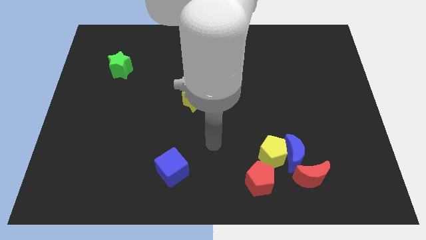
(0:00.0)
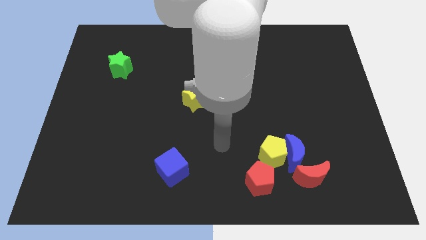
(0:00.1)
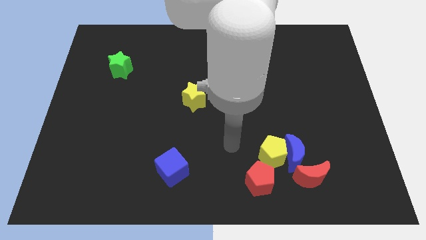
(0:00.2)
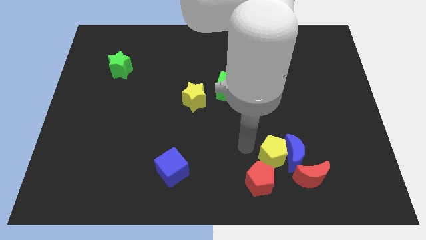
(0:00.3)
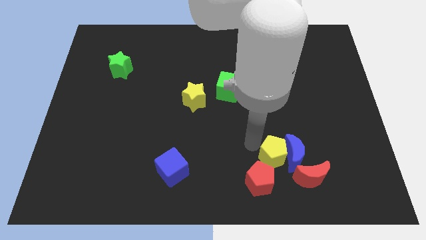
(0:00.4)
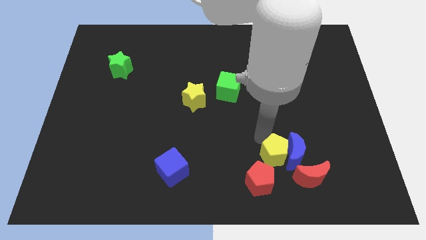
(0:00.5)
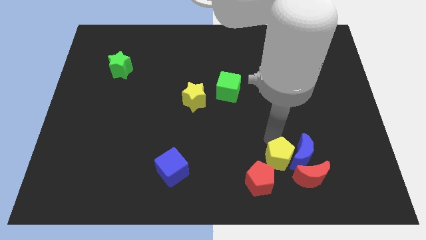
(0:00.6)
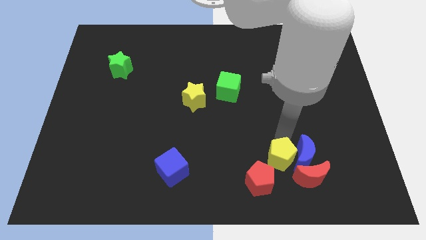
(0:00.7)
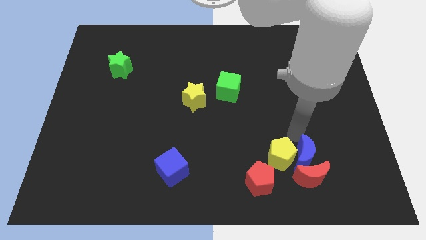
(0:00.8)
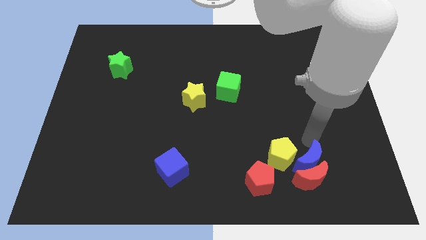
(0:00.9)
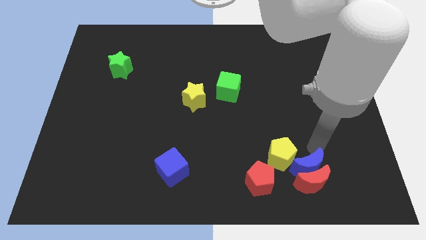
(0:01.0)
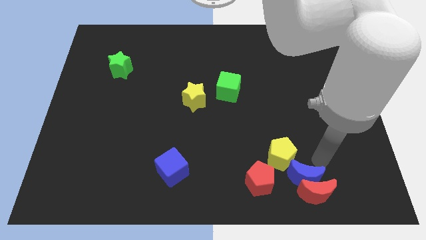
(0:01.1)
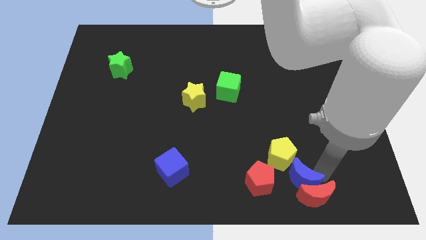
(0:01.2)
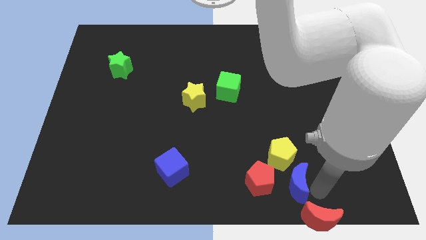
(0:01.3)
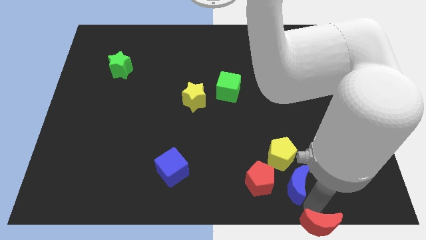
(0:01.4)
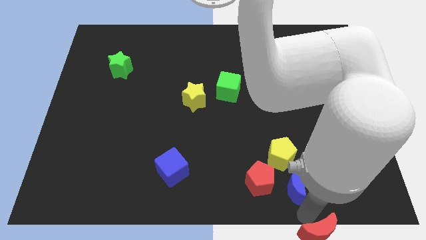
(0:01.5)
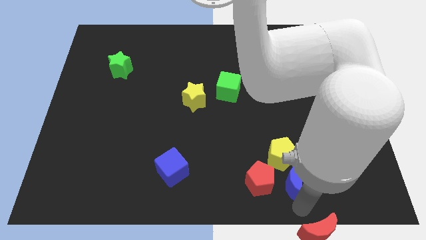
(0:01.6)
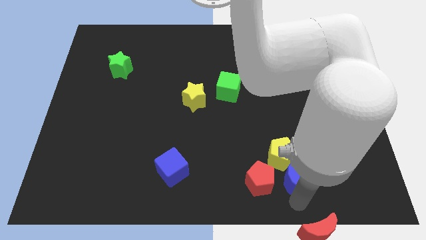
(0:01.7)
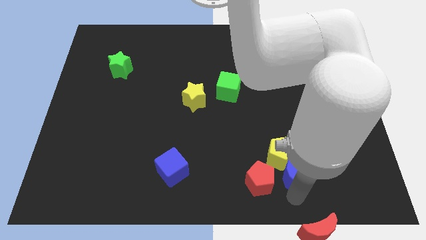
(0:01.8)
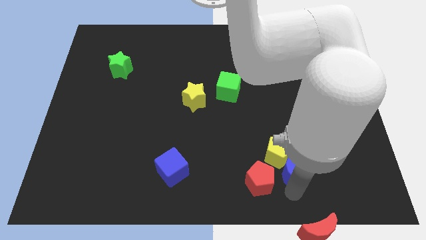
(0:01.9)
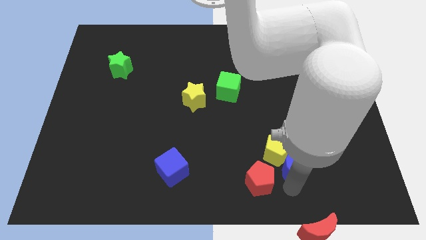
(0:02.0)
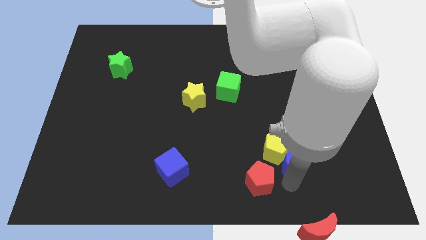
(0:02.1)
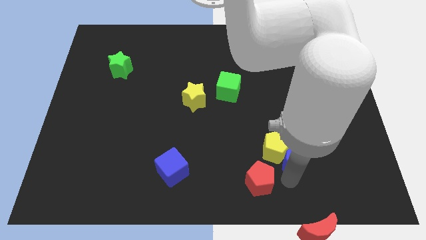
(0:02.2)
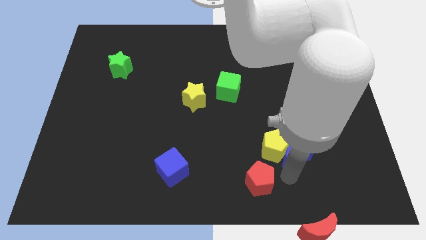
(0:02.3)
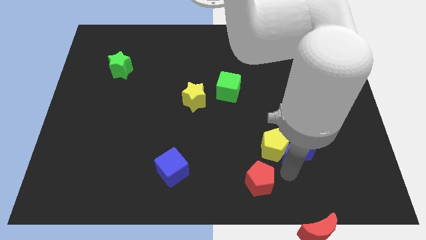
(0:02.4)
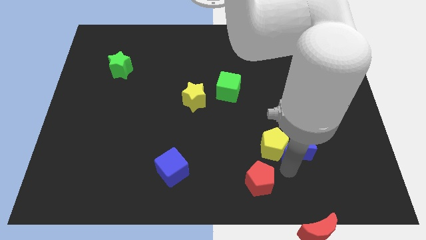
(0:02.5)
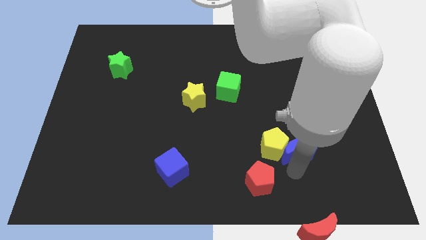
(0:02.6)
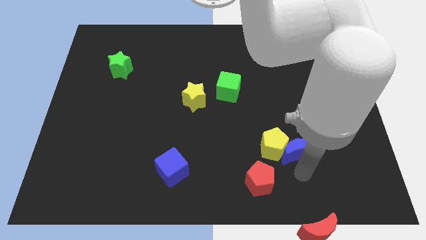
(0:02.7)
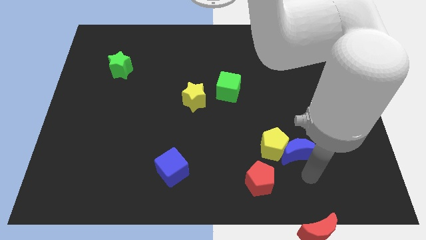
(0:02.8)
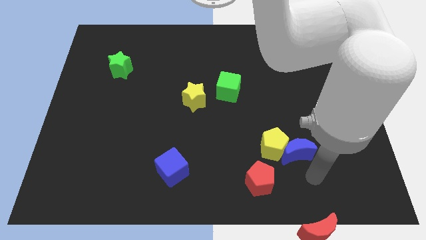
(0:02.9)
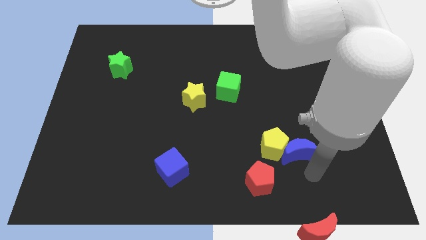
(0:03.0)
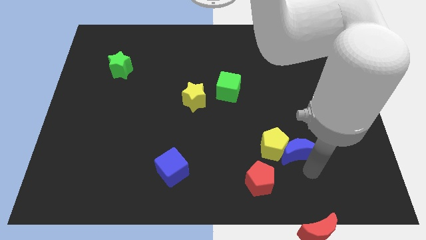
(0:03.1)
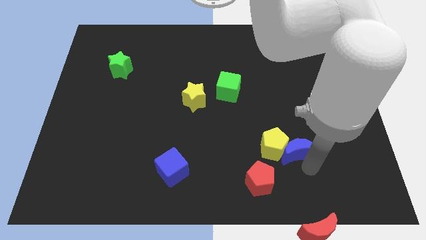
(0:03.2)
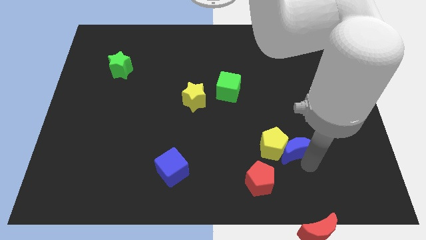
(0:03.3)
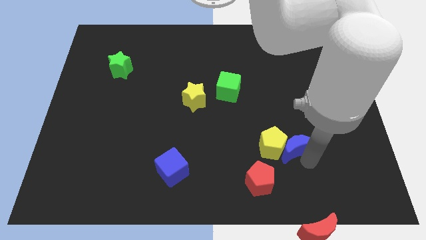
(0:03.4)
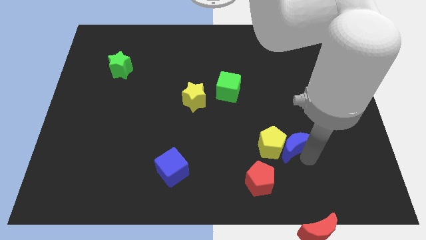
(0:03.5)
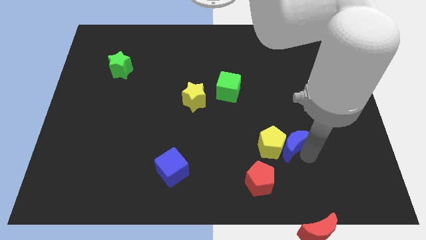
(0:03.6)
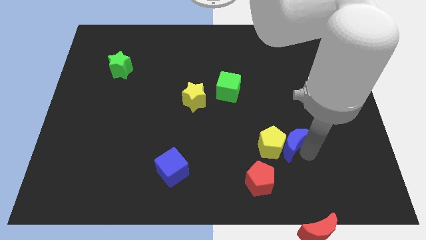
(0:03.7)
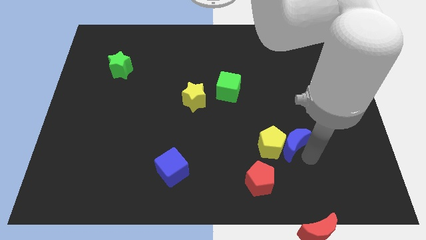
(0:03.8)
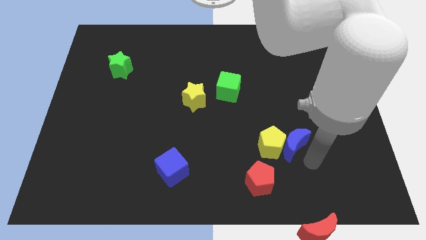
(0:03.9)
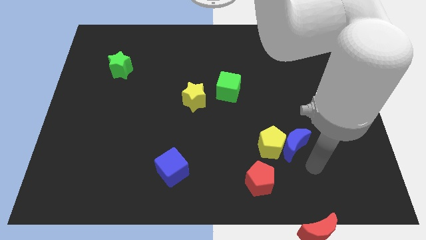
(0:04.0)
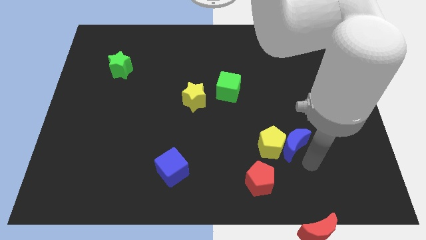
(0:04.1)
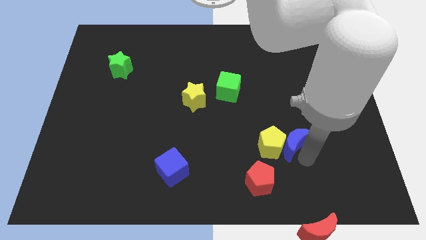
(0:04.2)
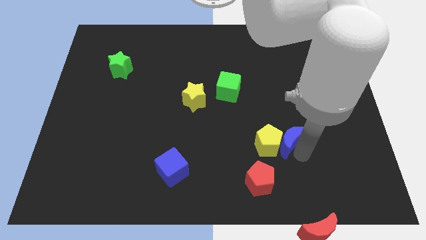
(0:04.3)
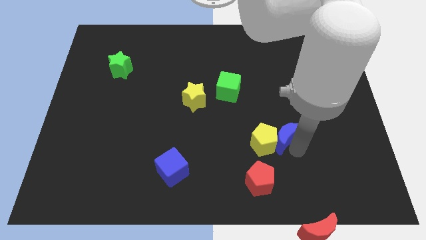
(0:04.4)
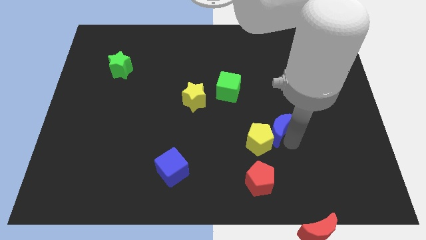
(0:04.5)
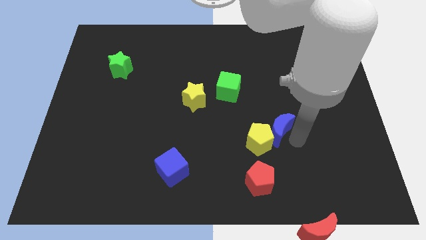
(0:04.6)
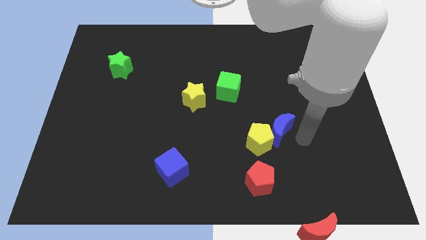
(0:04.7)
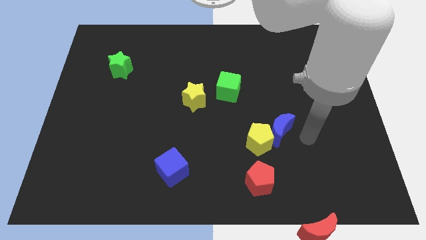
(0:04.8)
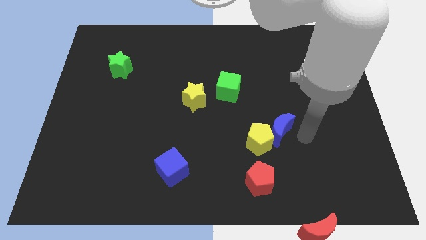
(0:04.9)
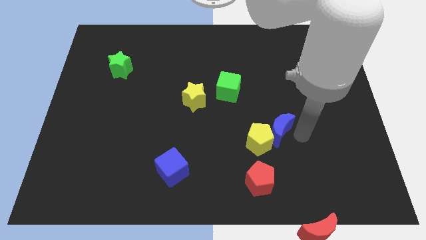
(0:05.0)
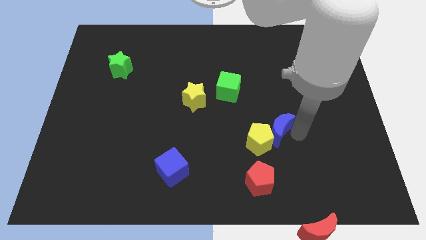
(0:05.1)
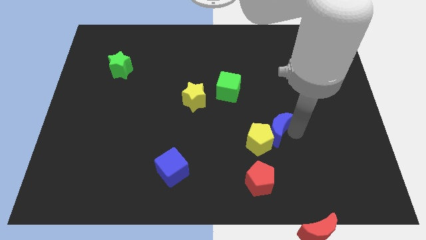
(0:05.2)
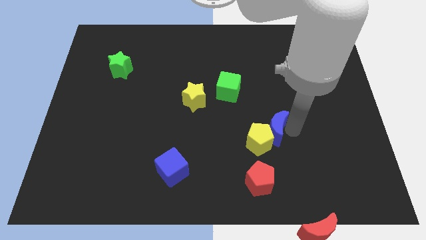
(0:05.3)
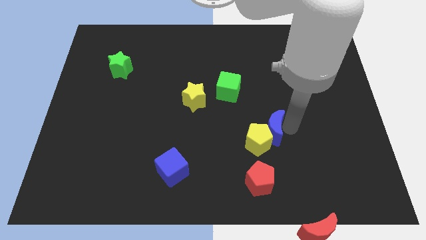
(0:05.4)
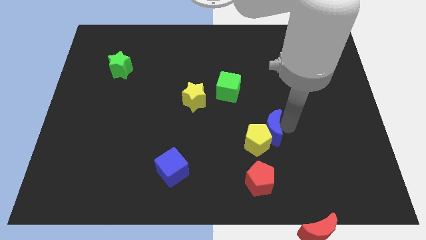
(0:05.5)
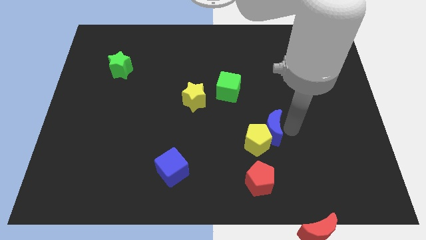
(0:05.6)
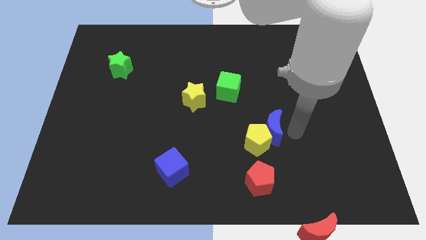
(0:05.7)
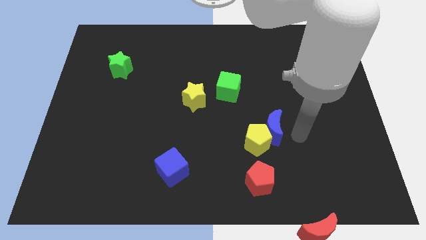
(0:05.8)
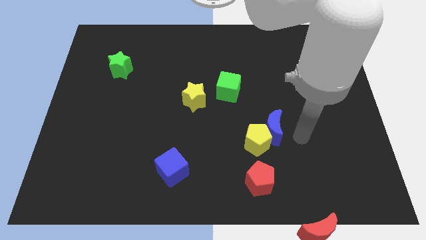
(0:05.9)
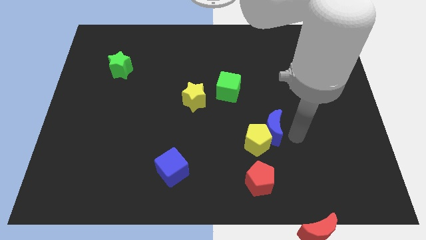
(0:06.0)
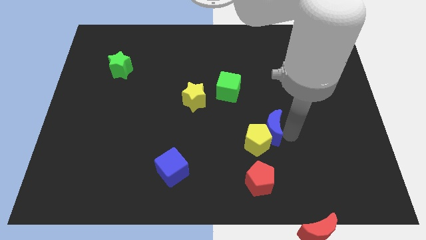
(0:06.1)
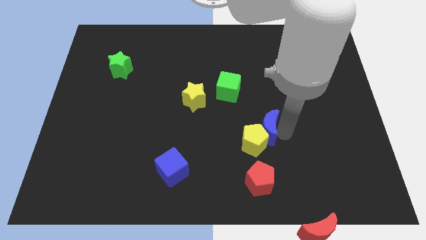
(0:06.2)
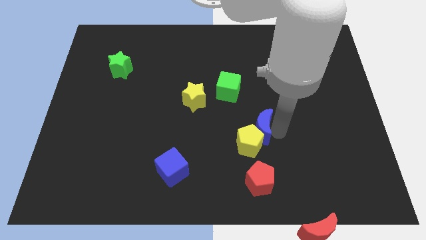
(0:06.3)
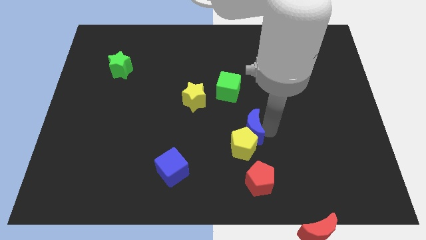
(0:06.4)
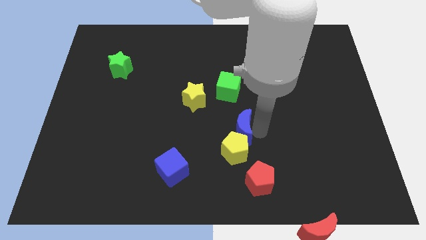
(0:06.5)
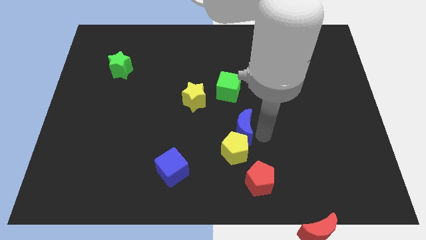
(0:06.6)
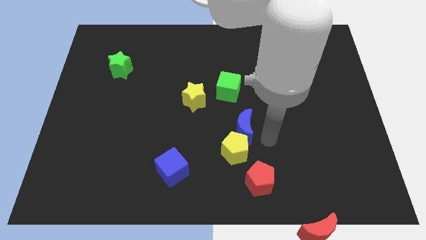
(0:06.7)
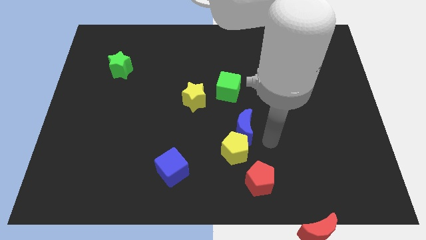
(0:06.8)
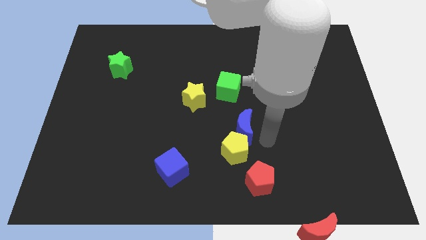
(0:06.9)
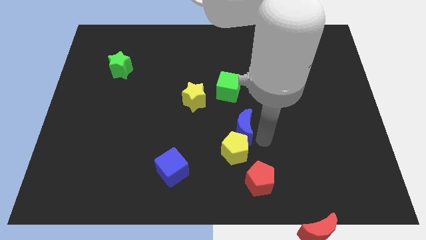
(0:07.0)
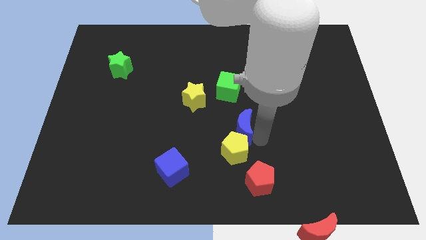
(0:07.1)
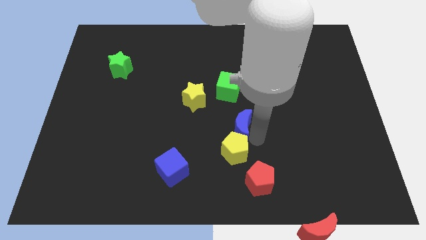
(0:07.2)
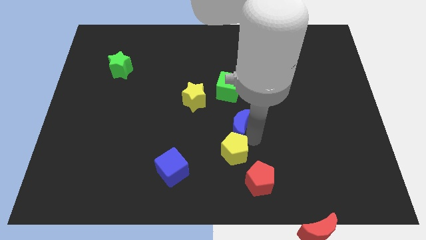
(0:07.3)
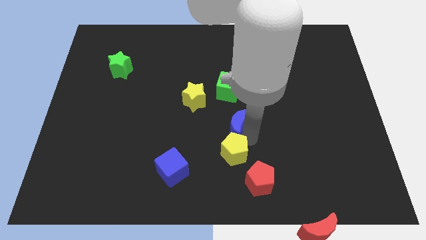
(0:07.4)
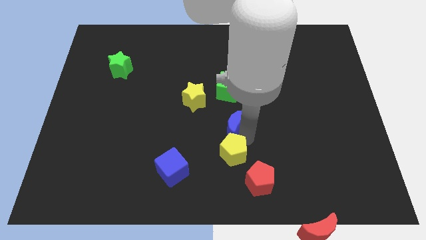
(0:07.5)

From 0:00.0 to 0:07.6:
push the blue moon diagonally down and to the right of the yellow star
